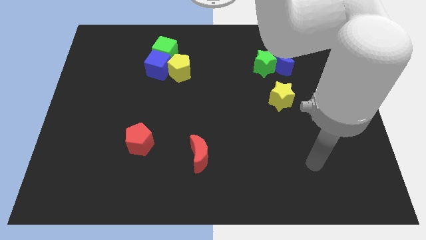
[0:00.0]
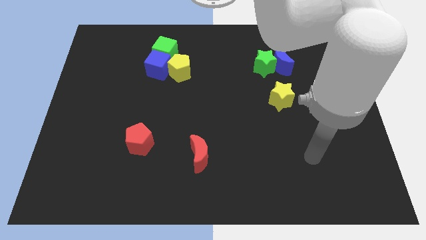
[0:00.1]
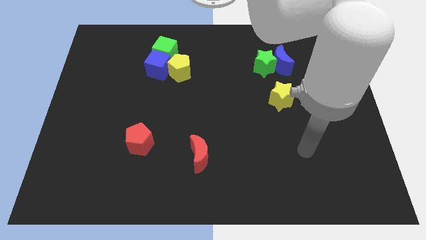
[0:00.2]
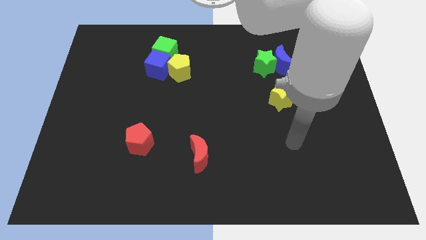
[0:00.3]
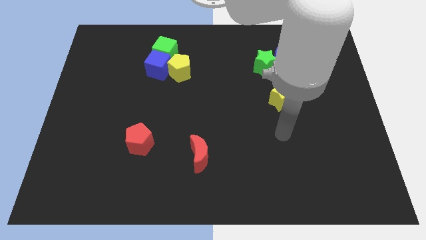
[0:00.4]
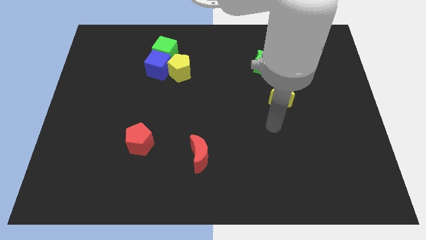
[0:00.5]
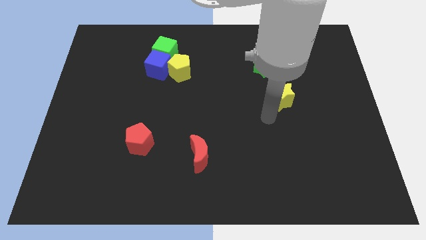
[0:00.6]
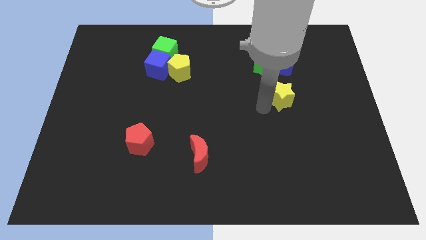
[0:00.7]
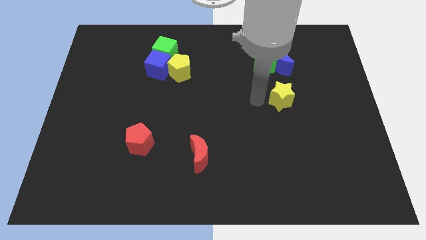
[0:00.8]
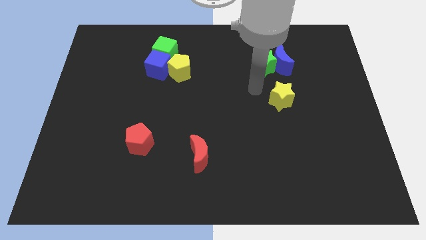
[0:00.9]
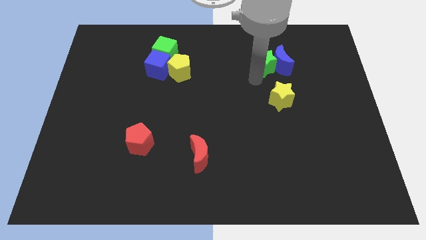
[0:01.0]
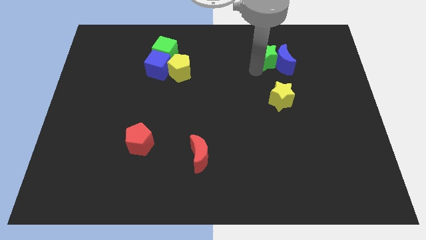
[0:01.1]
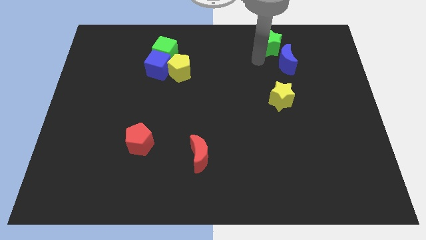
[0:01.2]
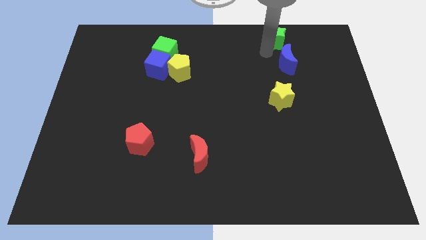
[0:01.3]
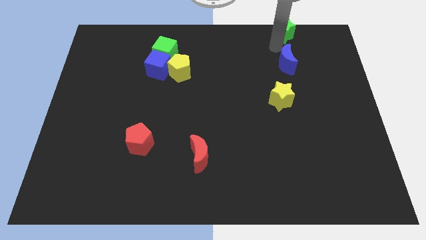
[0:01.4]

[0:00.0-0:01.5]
move the blue moon away from the green star

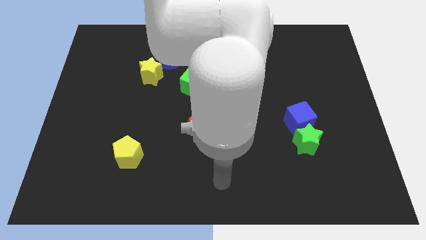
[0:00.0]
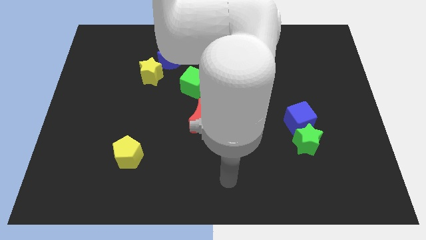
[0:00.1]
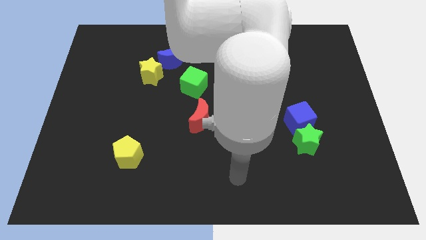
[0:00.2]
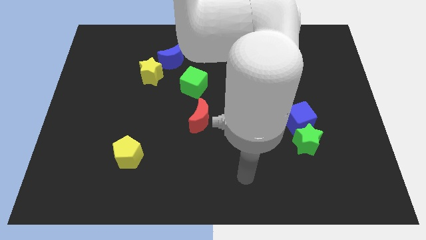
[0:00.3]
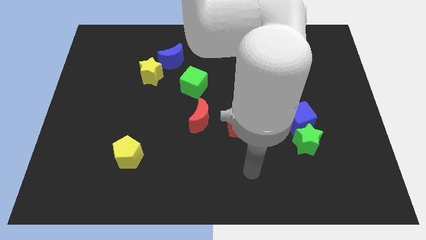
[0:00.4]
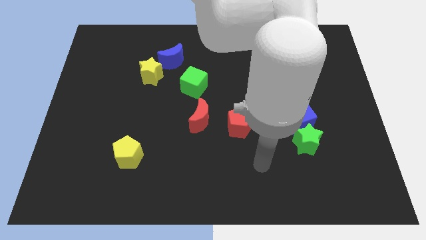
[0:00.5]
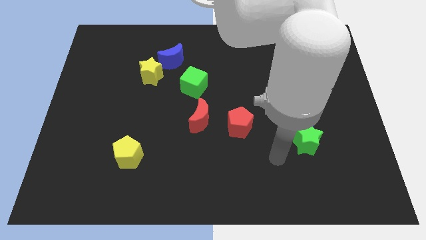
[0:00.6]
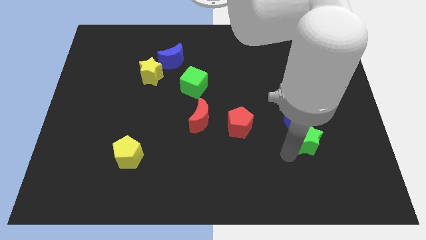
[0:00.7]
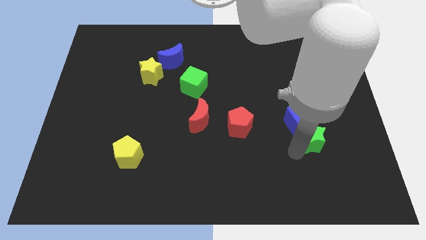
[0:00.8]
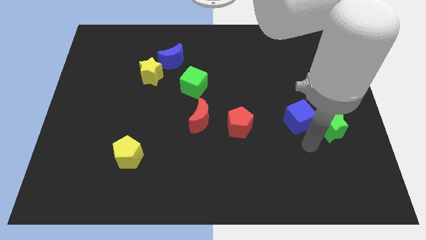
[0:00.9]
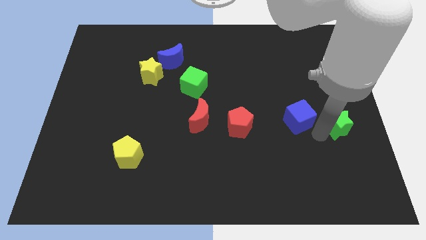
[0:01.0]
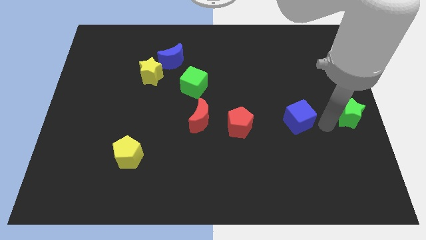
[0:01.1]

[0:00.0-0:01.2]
pull the blue cube apart from the green star

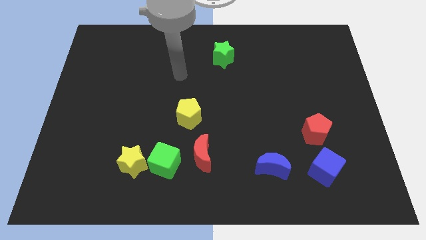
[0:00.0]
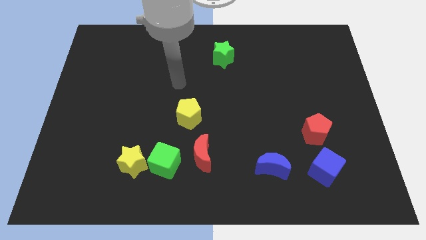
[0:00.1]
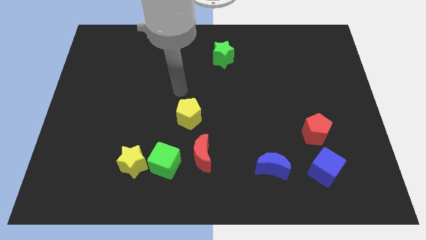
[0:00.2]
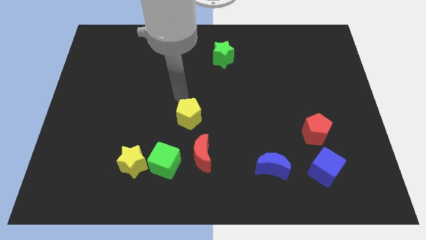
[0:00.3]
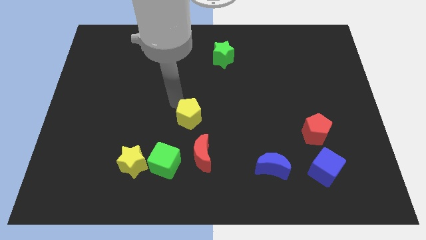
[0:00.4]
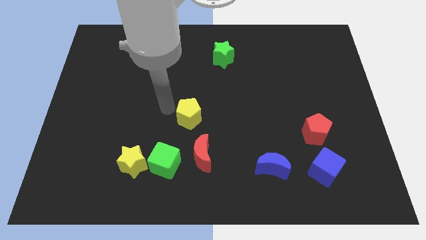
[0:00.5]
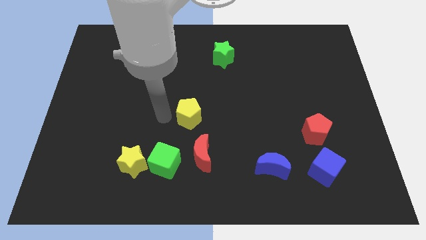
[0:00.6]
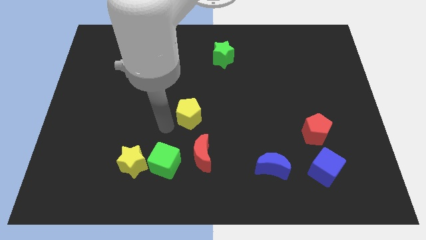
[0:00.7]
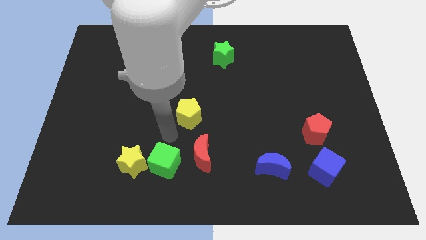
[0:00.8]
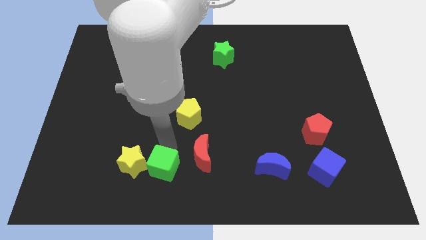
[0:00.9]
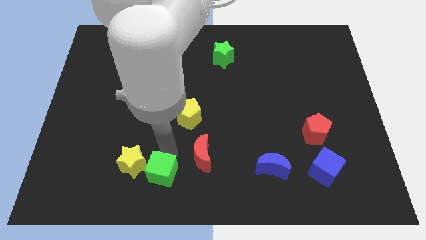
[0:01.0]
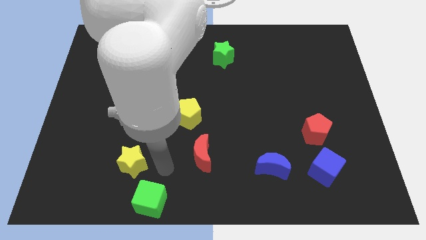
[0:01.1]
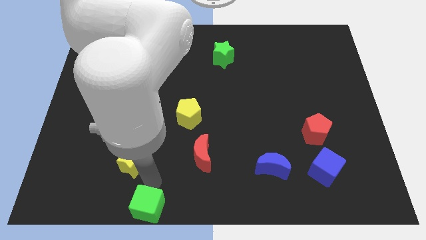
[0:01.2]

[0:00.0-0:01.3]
pull the yellow star apart from the green cube

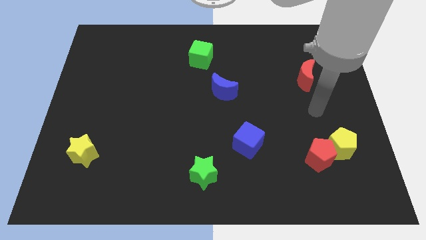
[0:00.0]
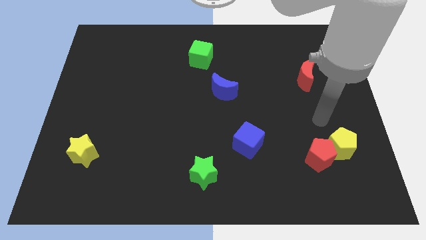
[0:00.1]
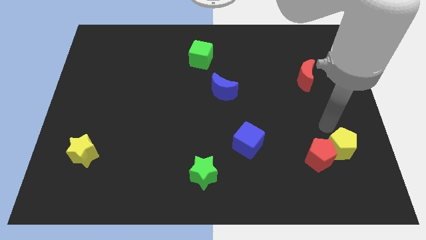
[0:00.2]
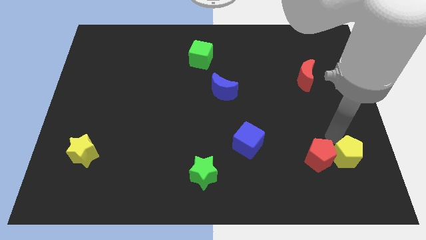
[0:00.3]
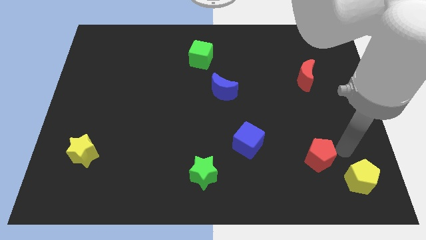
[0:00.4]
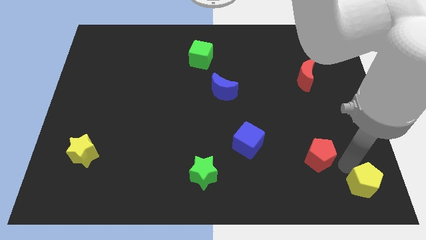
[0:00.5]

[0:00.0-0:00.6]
move the red pentagon away from the yellow pentagon

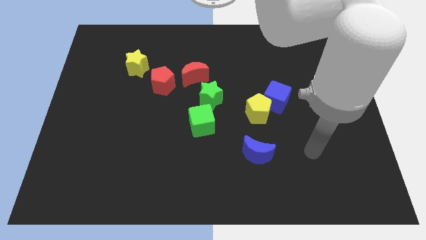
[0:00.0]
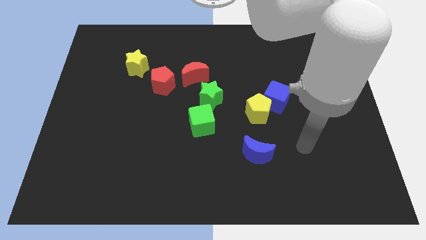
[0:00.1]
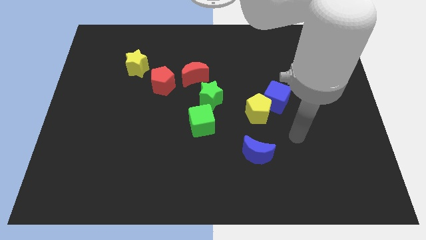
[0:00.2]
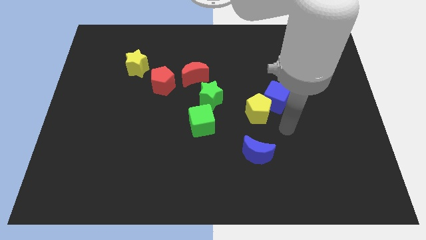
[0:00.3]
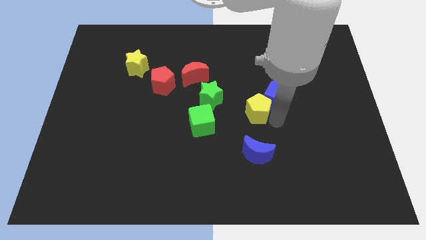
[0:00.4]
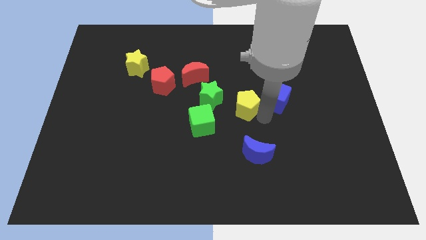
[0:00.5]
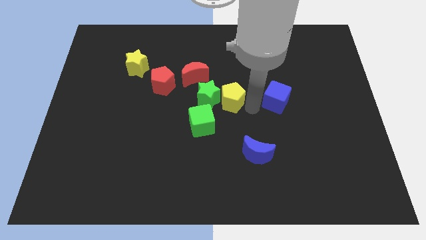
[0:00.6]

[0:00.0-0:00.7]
separate the blue cube from the yellow pentagon

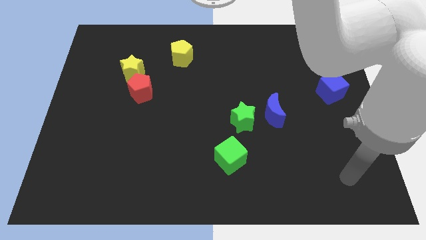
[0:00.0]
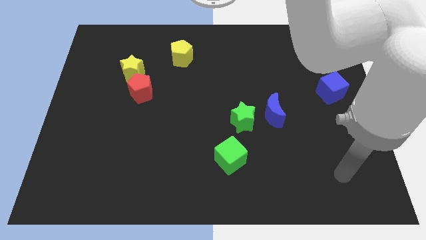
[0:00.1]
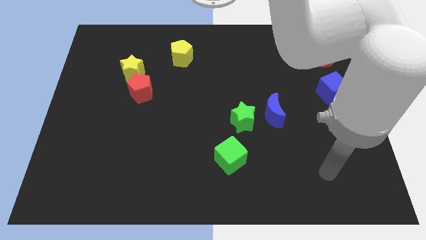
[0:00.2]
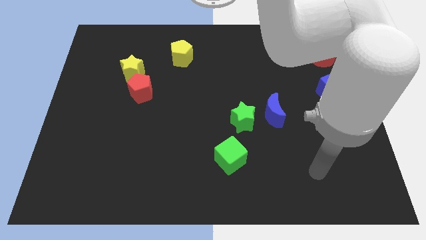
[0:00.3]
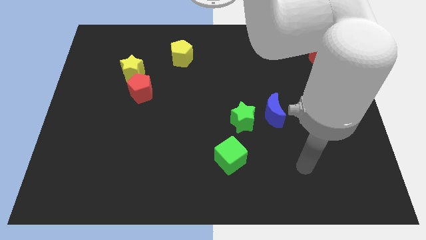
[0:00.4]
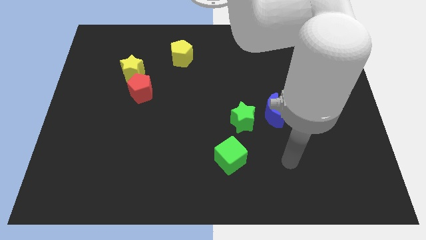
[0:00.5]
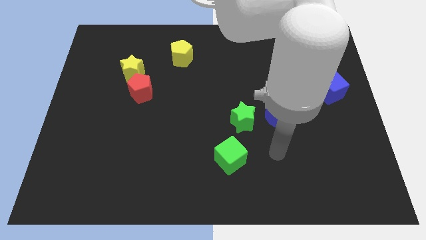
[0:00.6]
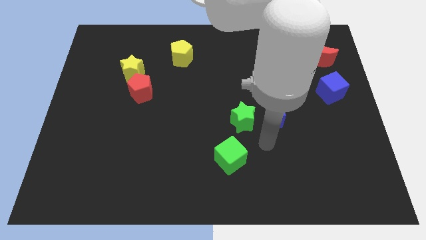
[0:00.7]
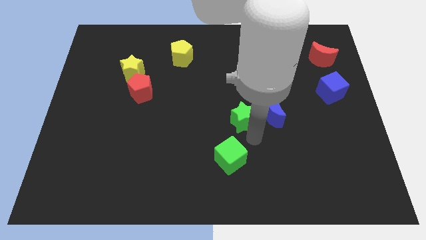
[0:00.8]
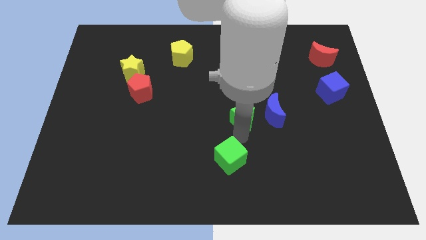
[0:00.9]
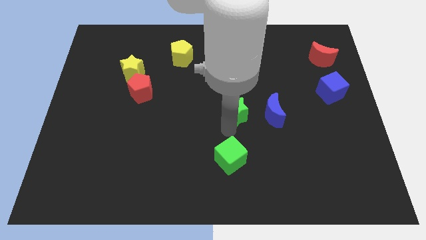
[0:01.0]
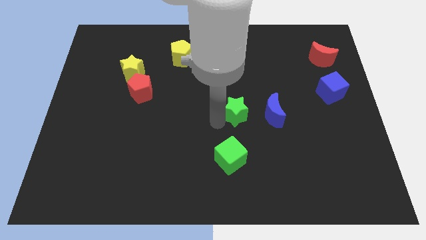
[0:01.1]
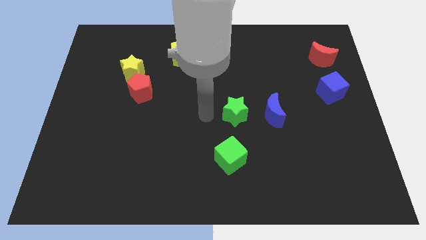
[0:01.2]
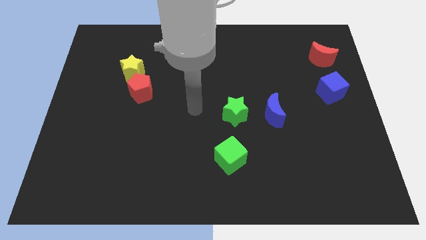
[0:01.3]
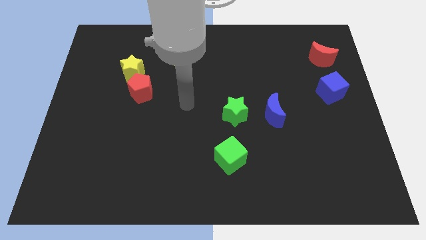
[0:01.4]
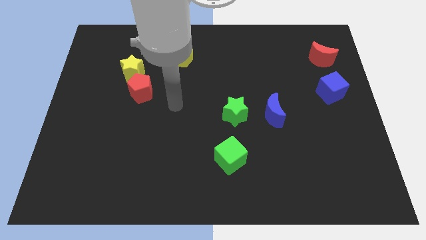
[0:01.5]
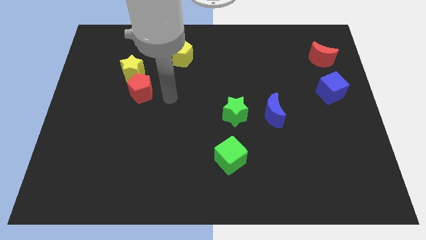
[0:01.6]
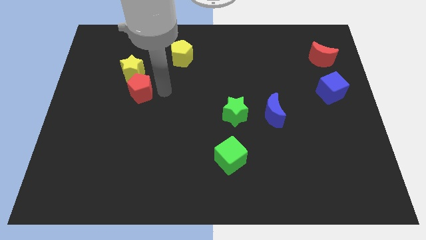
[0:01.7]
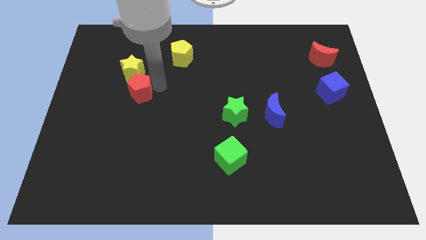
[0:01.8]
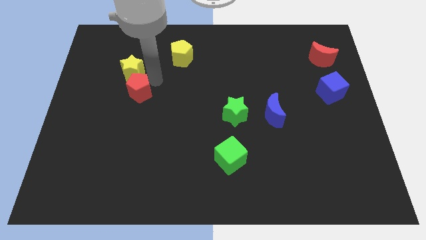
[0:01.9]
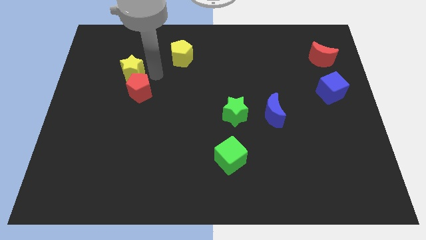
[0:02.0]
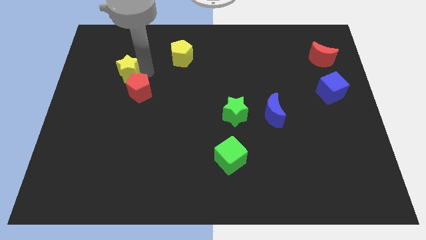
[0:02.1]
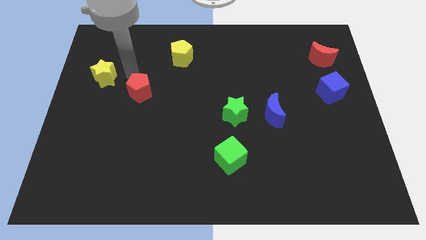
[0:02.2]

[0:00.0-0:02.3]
separate the red pentagon from the yellow star

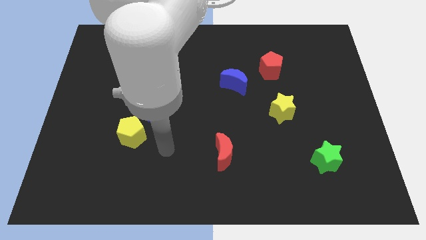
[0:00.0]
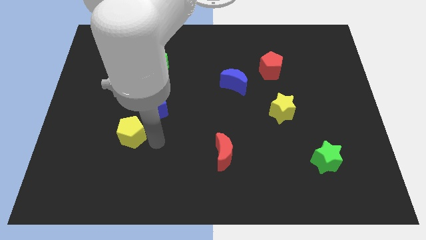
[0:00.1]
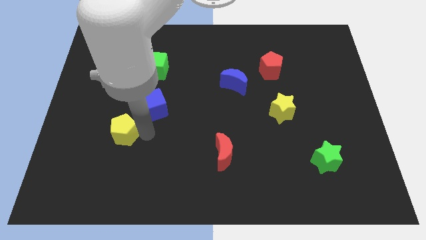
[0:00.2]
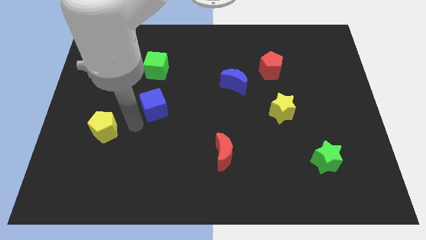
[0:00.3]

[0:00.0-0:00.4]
pull the blue cube apart from the yellow pentagon

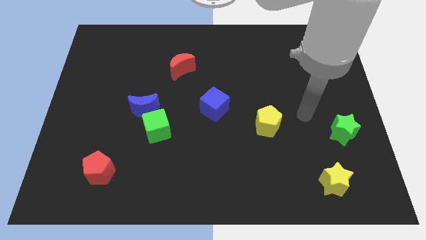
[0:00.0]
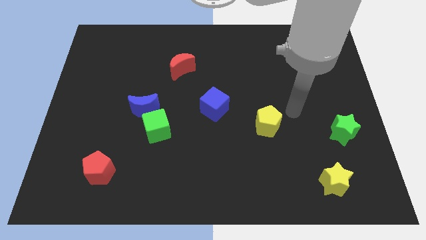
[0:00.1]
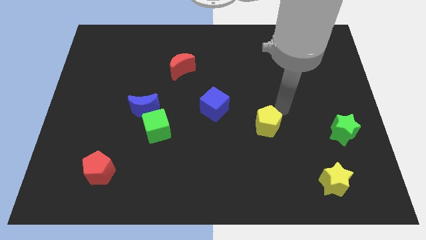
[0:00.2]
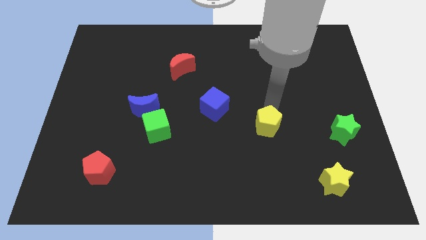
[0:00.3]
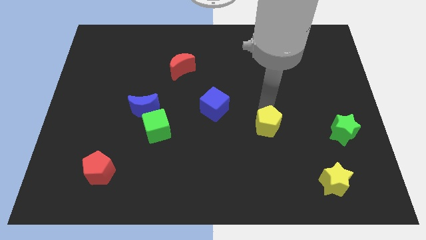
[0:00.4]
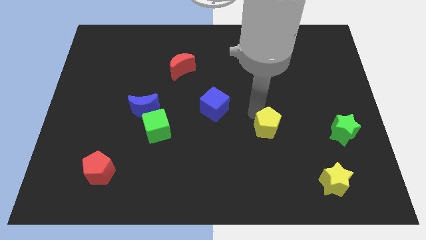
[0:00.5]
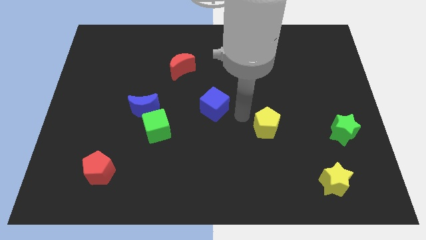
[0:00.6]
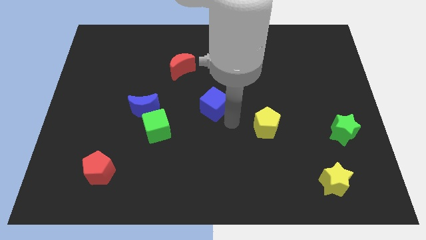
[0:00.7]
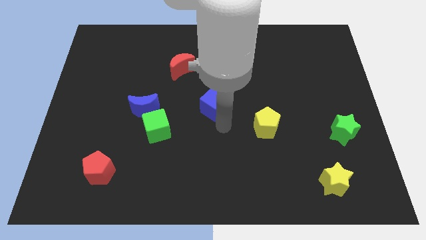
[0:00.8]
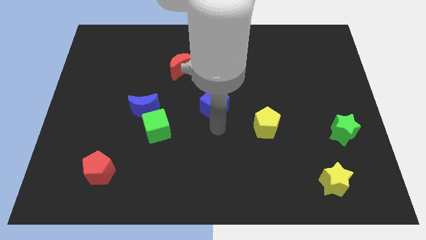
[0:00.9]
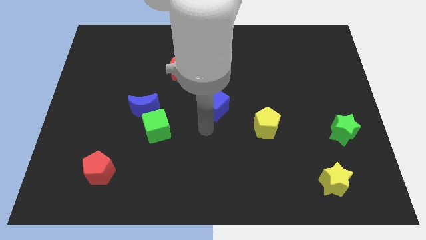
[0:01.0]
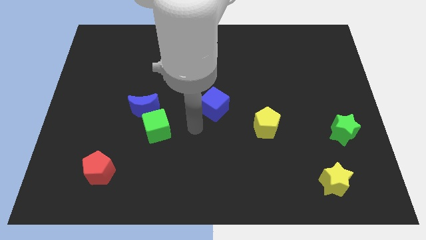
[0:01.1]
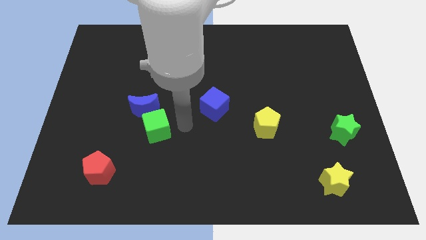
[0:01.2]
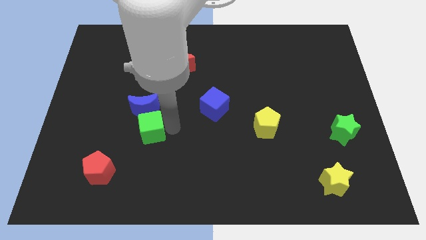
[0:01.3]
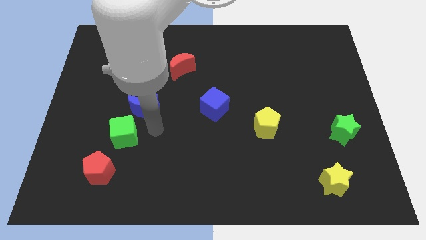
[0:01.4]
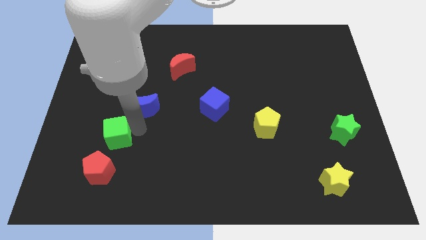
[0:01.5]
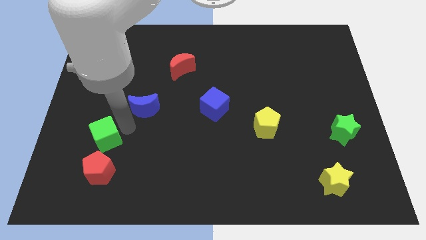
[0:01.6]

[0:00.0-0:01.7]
pull the blue moon apart from the green cube
